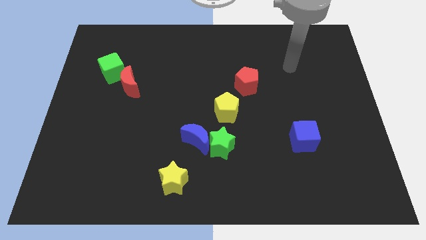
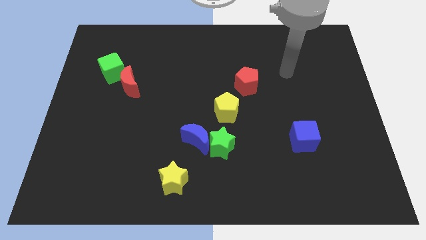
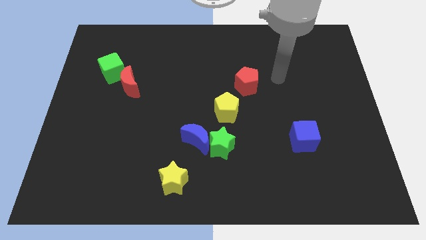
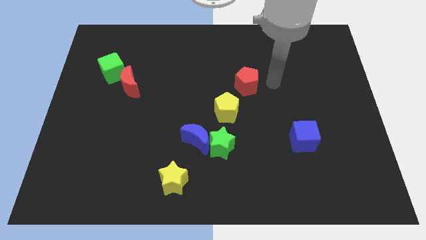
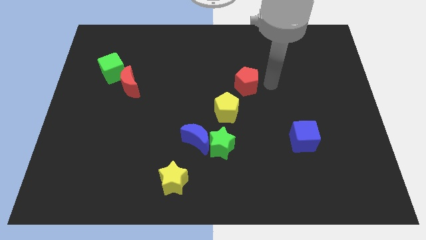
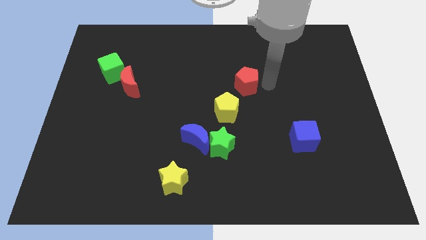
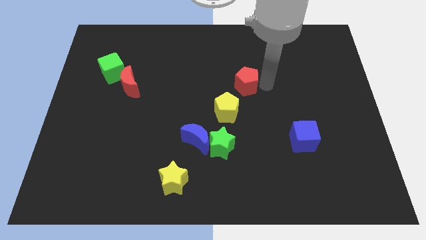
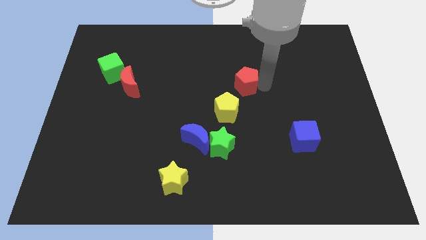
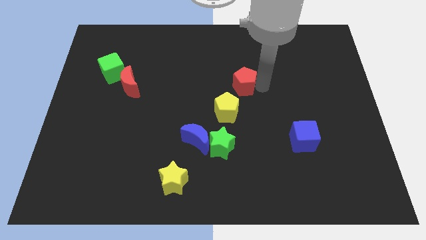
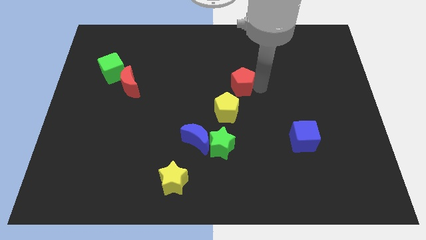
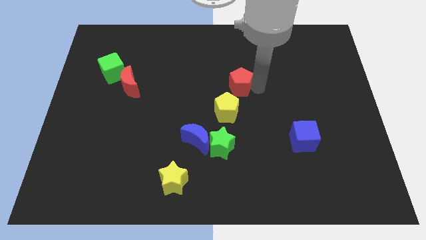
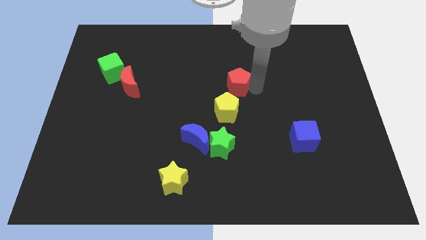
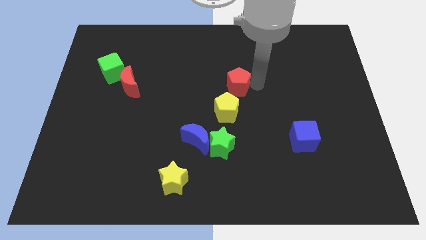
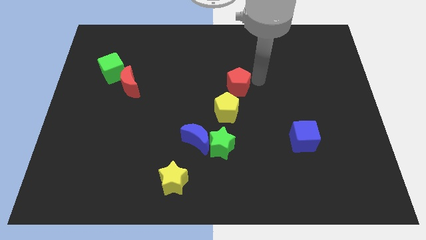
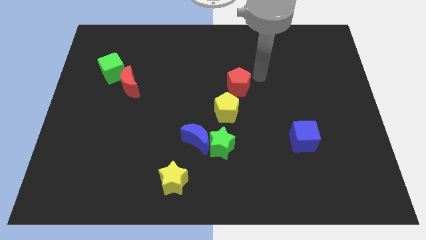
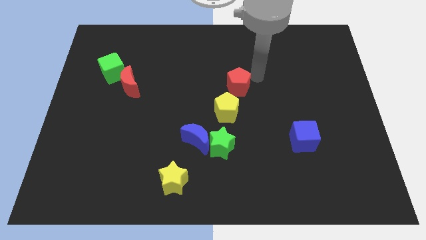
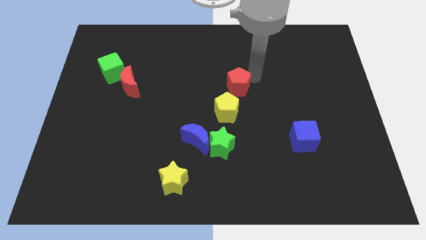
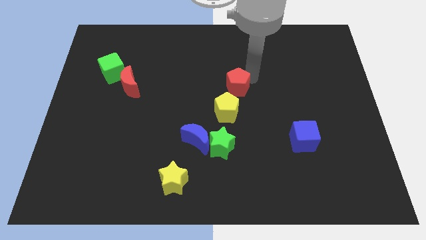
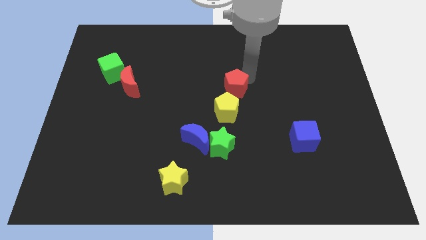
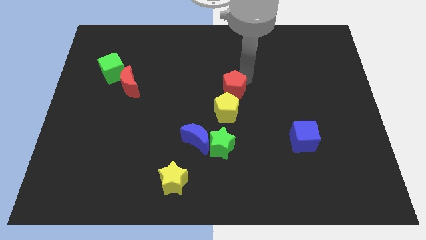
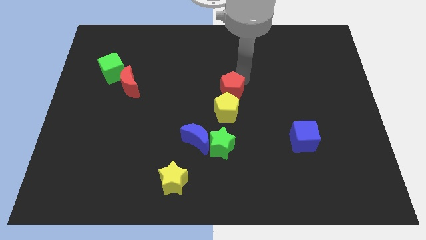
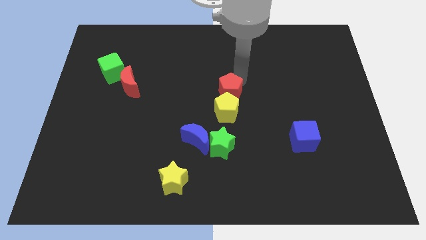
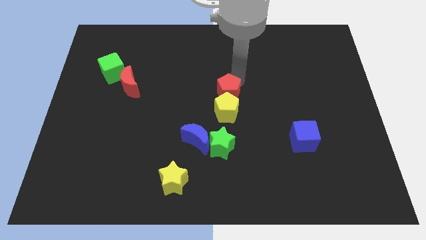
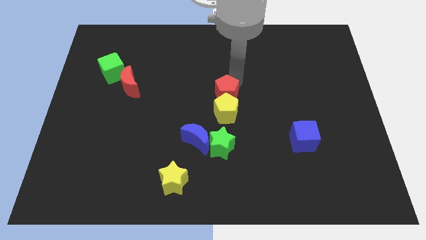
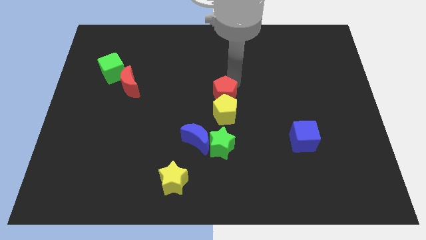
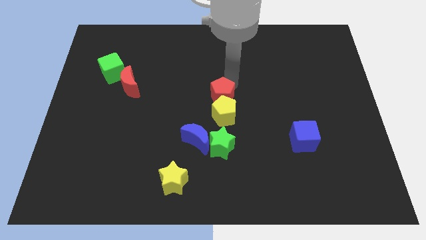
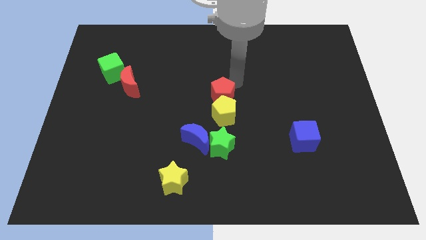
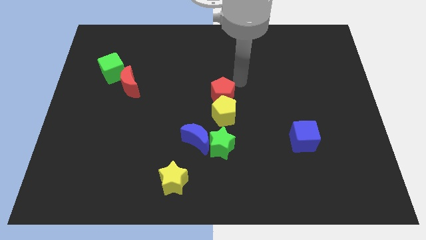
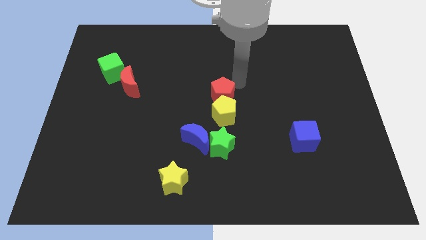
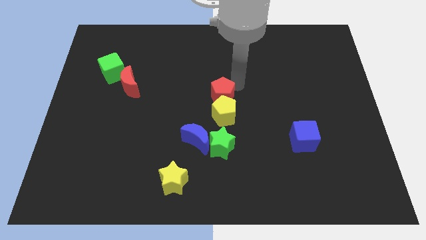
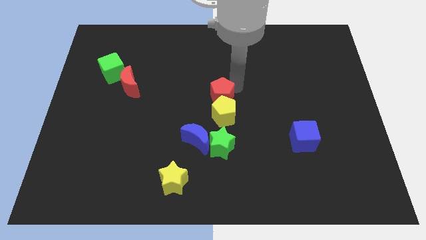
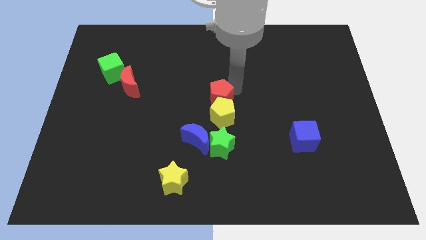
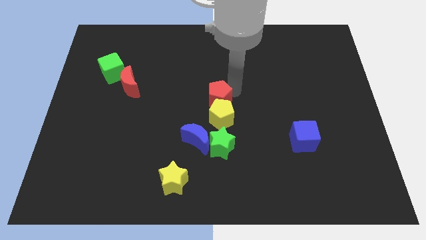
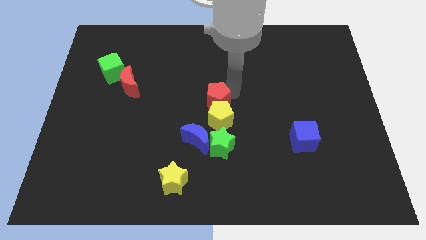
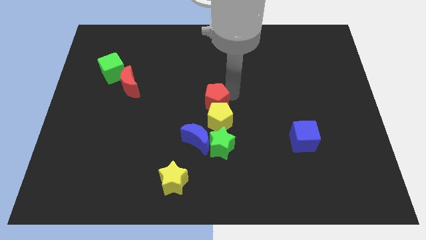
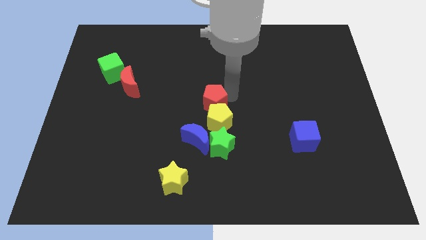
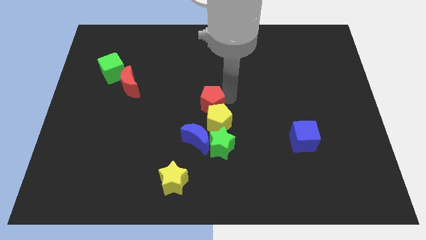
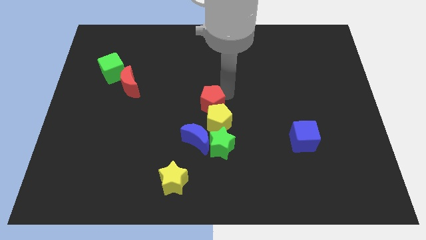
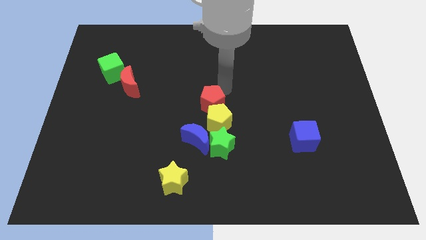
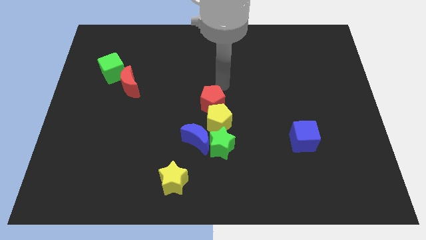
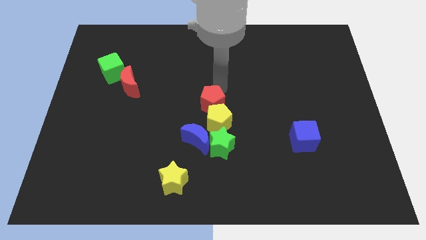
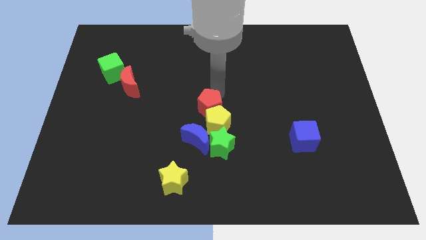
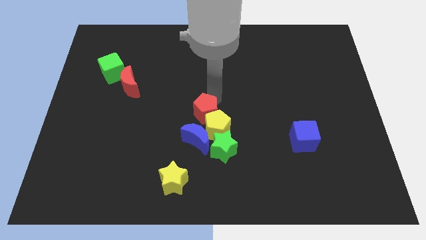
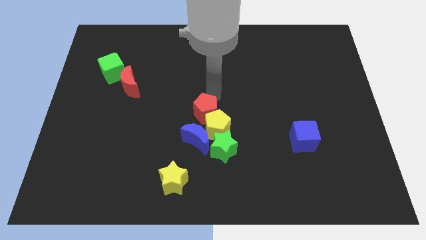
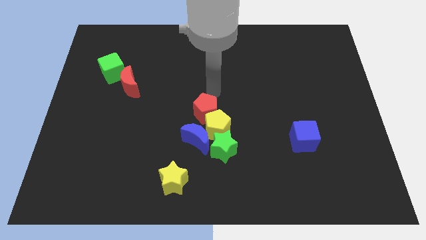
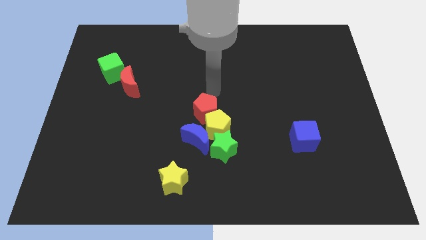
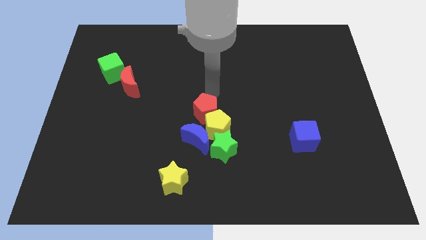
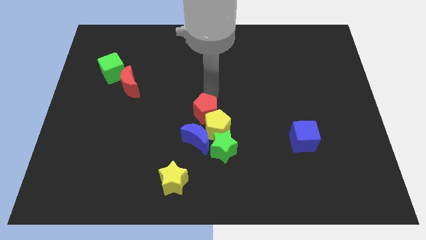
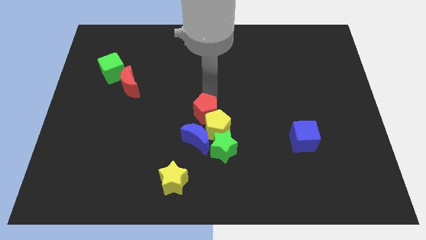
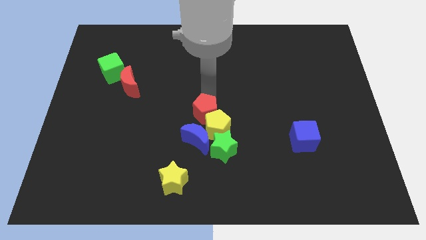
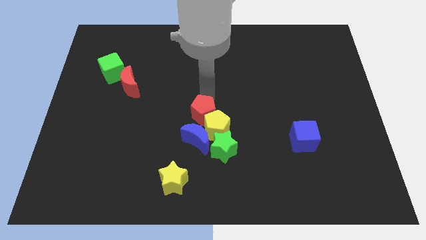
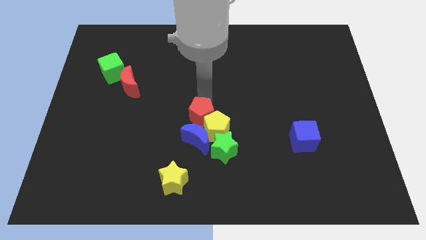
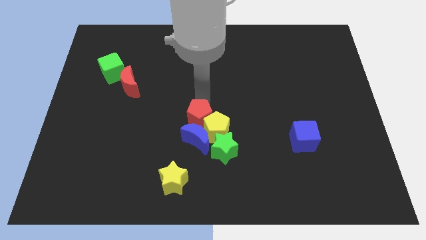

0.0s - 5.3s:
move the red pentagon towards the blue moon

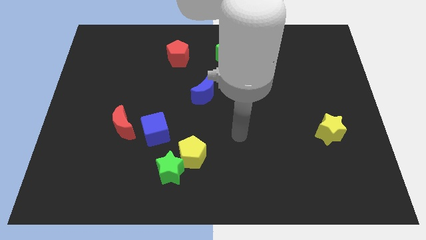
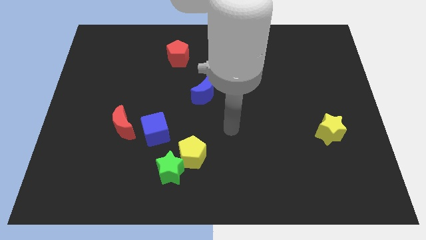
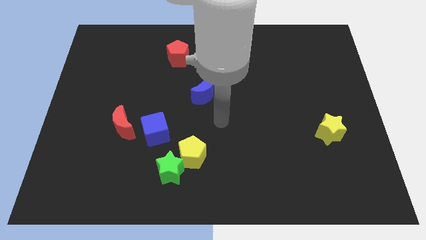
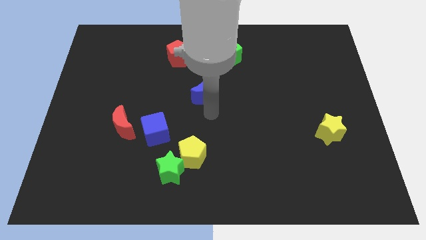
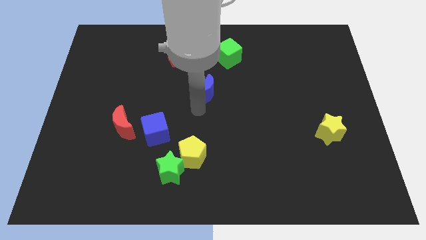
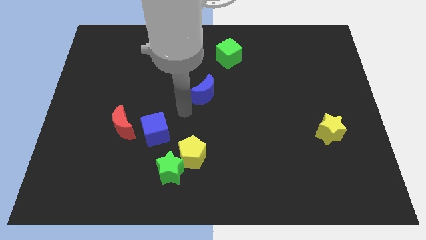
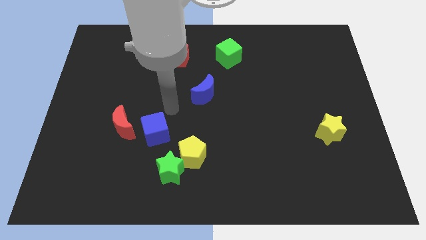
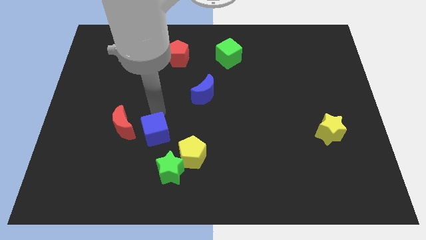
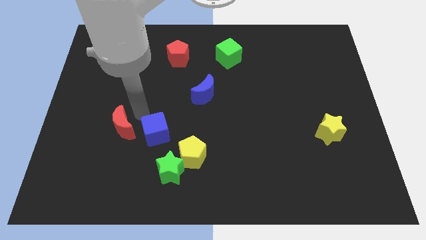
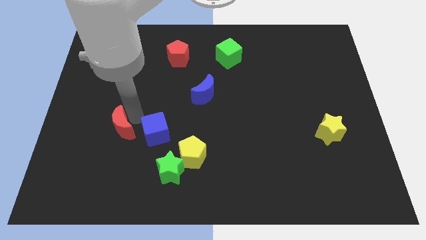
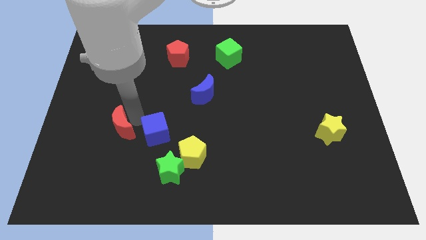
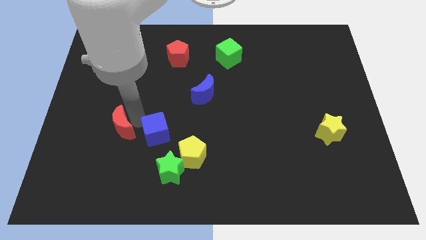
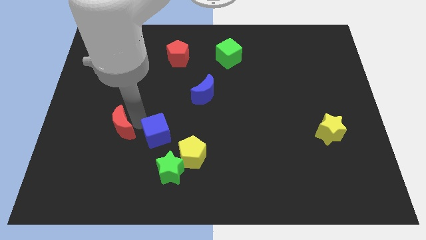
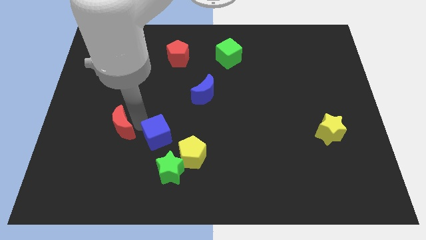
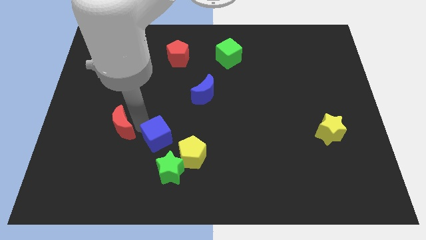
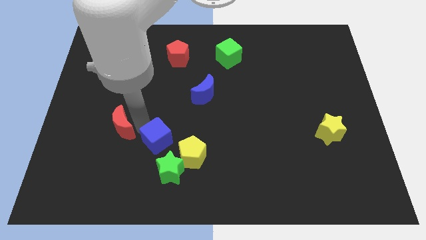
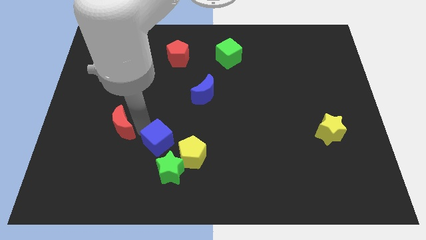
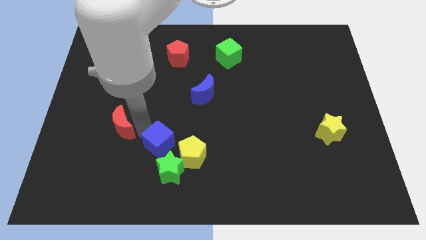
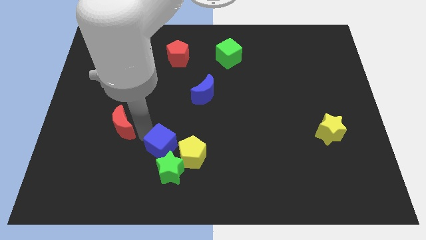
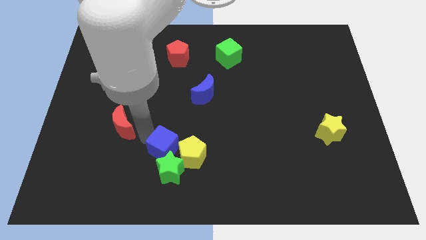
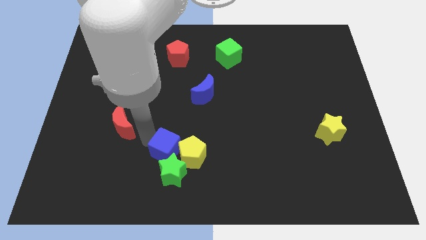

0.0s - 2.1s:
slide the blue cube to the yellow pentagon
